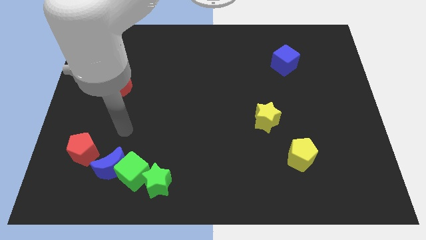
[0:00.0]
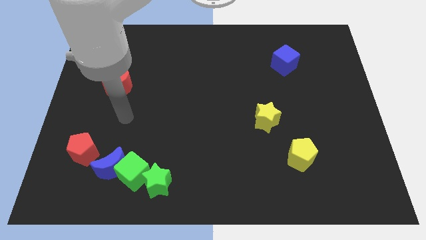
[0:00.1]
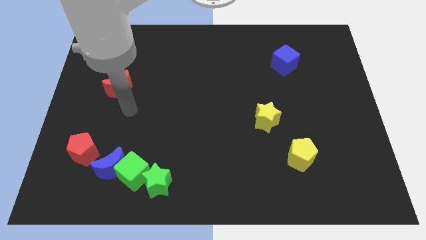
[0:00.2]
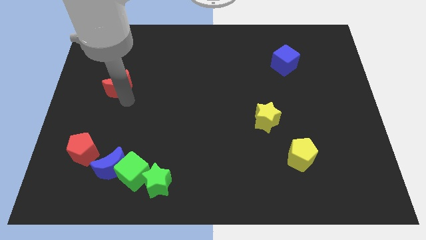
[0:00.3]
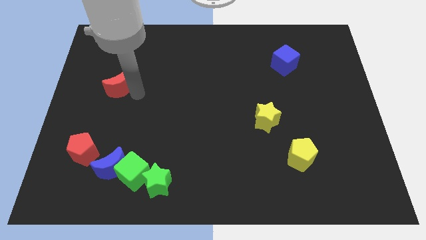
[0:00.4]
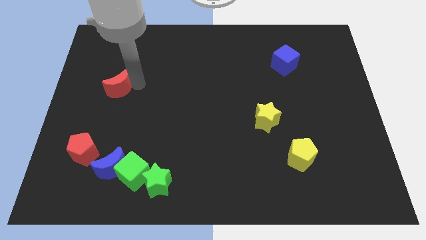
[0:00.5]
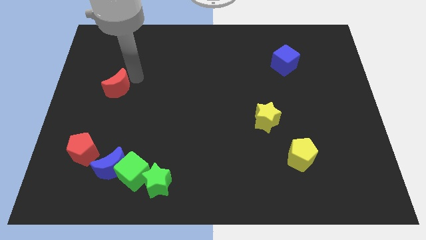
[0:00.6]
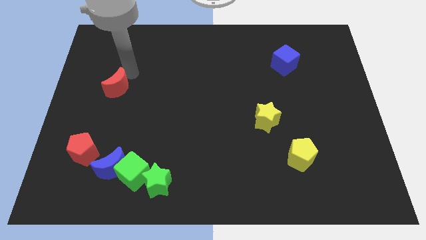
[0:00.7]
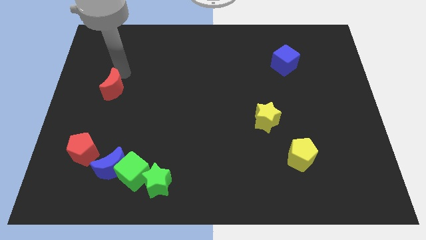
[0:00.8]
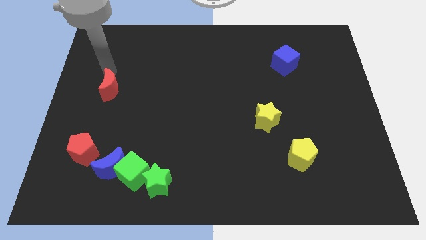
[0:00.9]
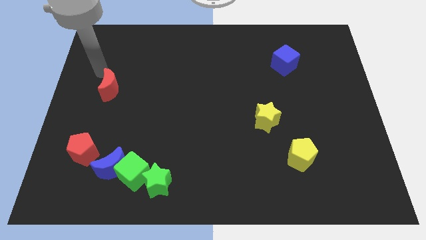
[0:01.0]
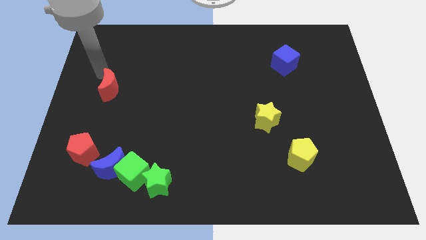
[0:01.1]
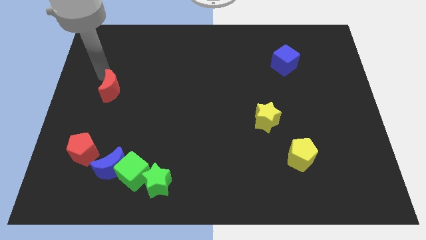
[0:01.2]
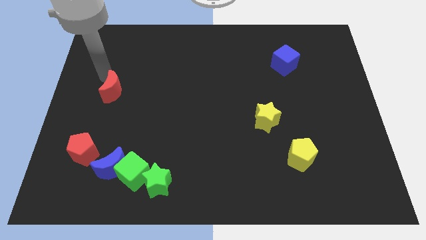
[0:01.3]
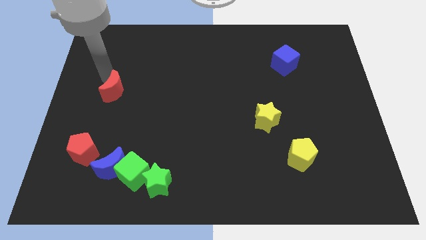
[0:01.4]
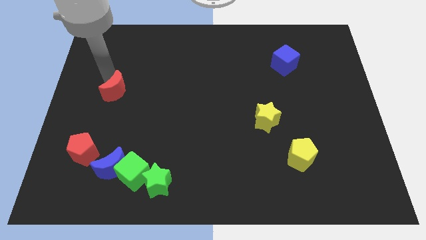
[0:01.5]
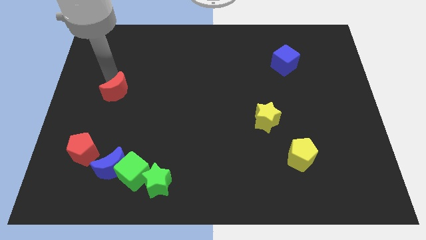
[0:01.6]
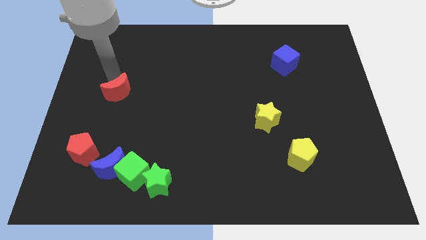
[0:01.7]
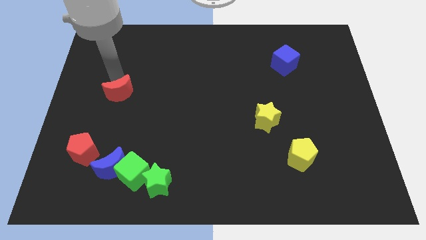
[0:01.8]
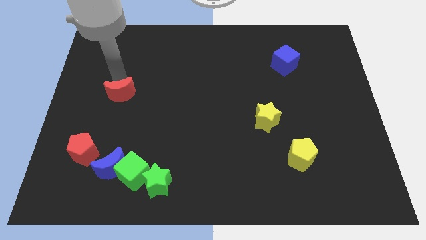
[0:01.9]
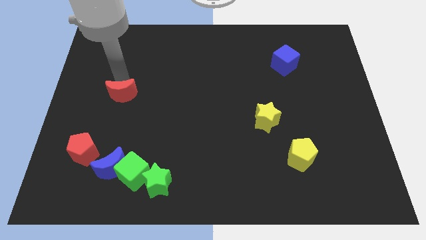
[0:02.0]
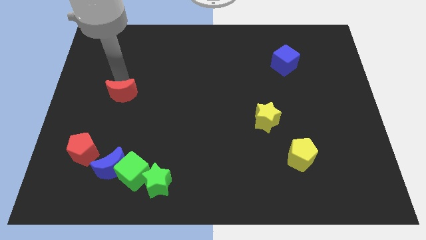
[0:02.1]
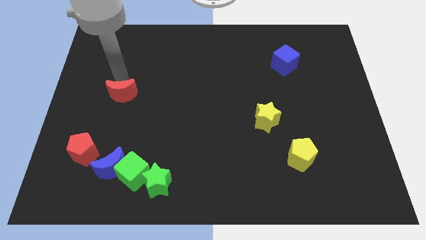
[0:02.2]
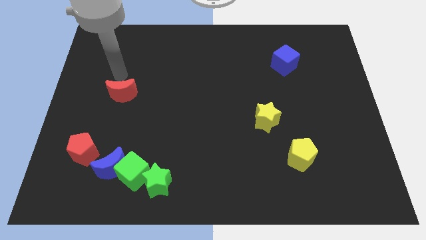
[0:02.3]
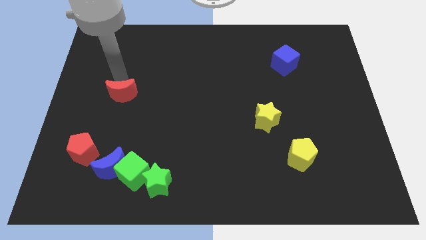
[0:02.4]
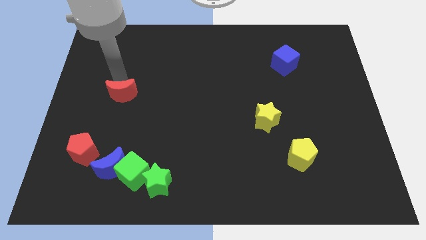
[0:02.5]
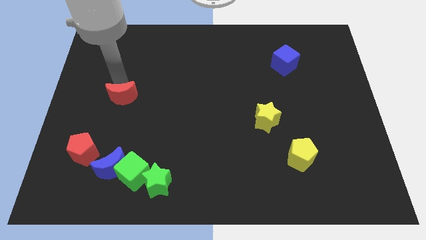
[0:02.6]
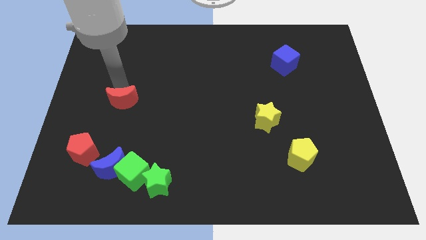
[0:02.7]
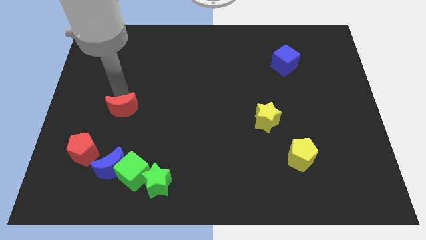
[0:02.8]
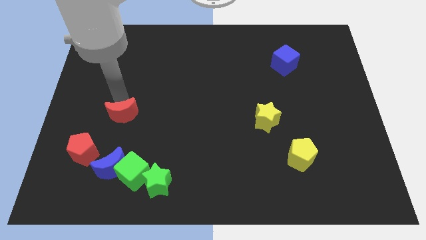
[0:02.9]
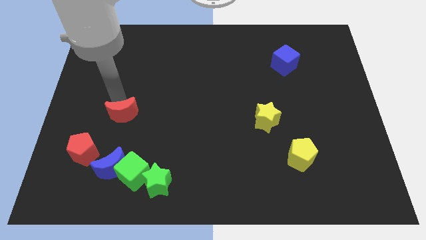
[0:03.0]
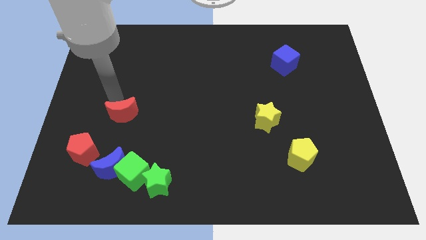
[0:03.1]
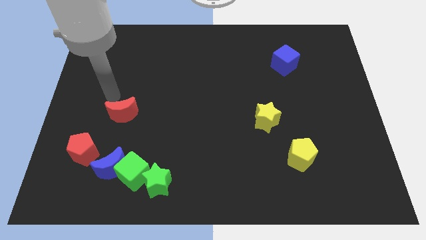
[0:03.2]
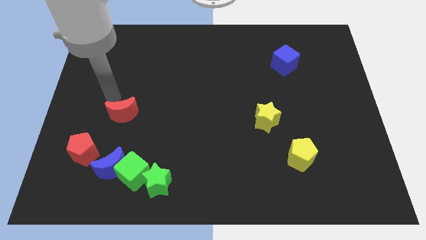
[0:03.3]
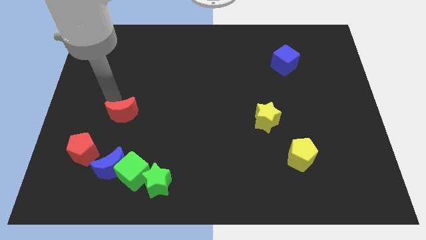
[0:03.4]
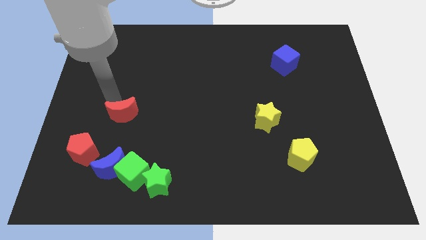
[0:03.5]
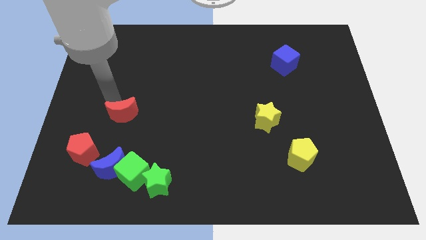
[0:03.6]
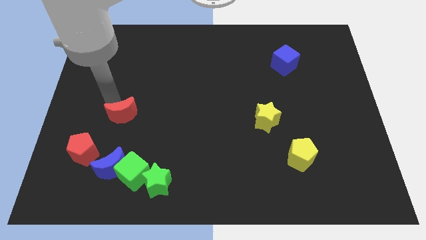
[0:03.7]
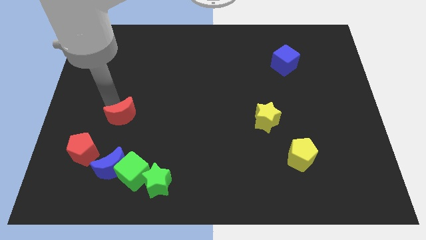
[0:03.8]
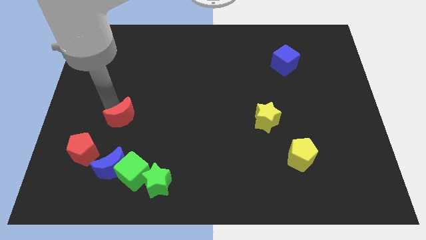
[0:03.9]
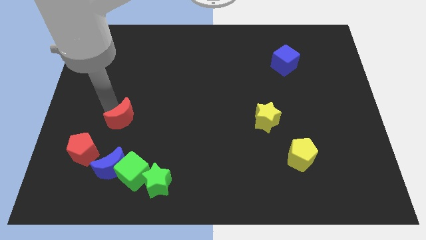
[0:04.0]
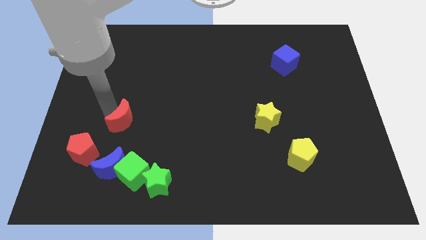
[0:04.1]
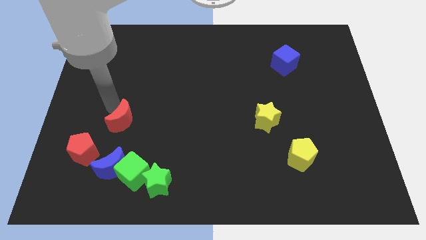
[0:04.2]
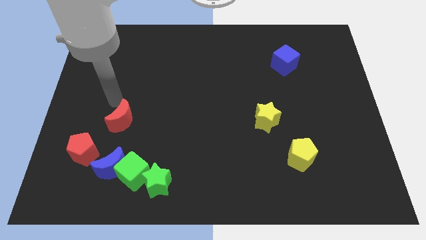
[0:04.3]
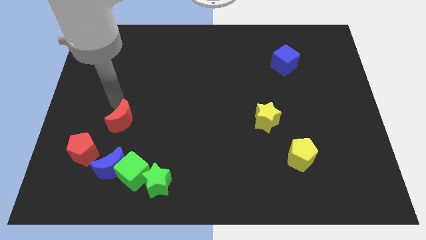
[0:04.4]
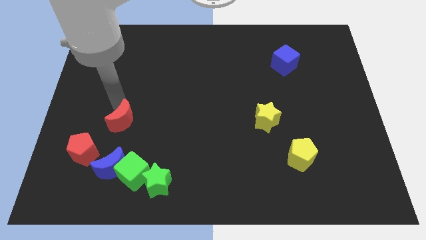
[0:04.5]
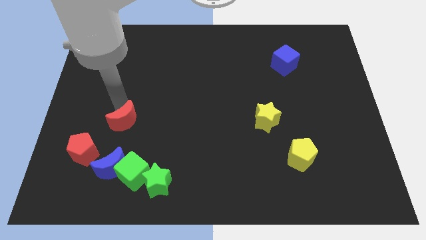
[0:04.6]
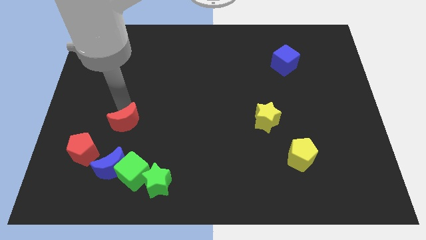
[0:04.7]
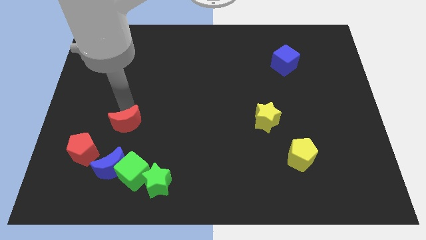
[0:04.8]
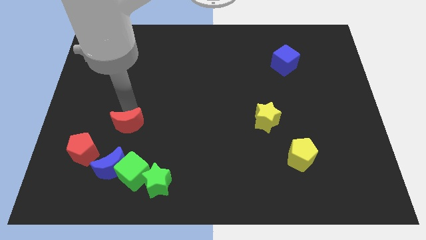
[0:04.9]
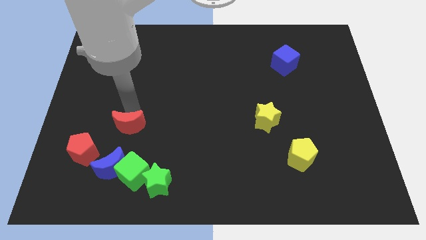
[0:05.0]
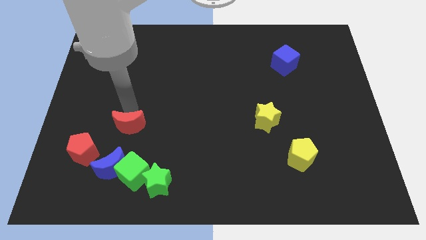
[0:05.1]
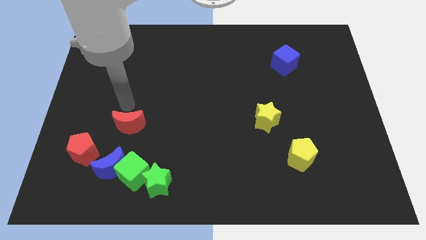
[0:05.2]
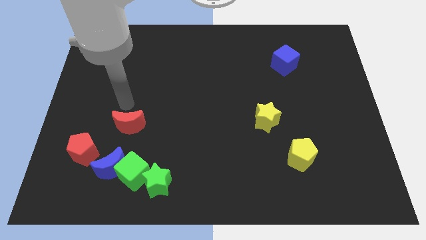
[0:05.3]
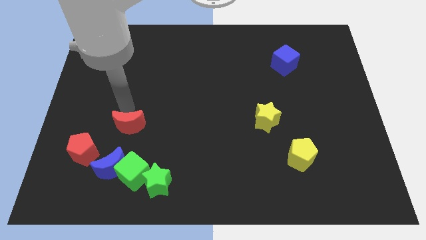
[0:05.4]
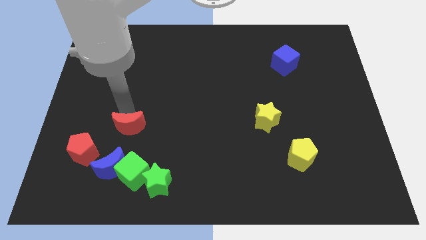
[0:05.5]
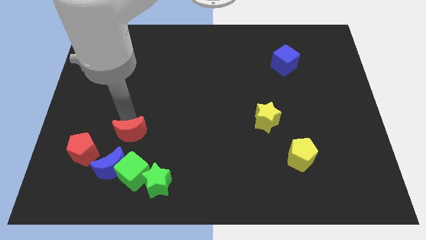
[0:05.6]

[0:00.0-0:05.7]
put the red moon to the right side of the red pentagon
